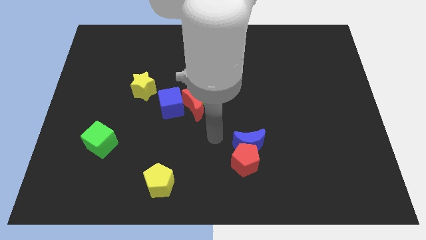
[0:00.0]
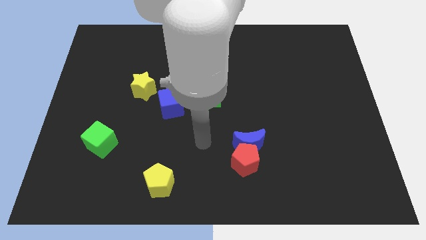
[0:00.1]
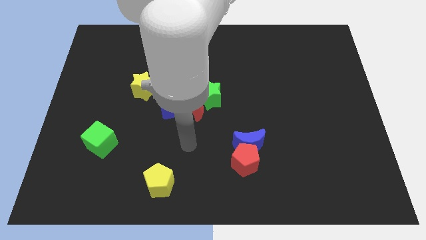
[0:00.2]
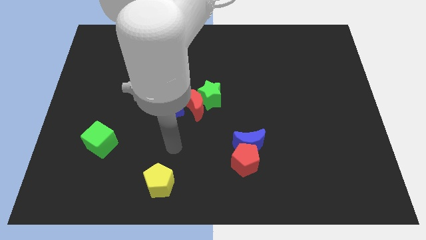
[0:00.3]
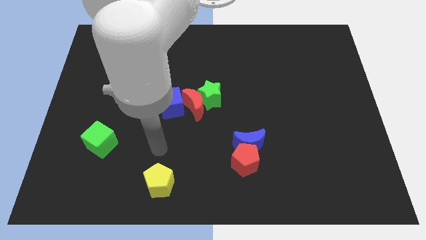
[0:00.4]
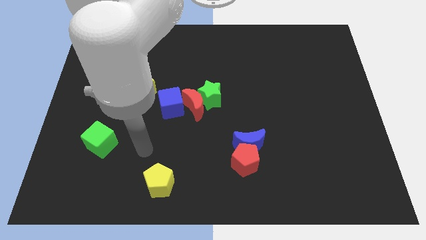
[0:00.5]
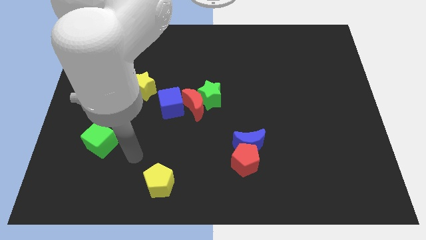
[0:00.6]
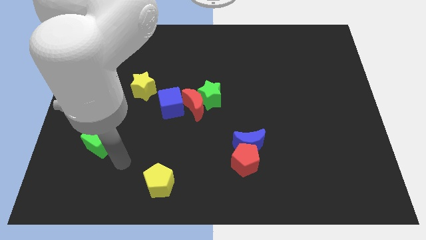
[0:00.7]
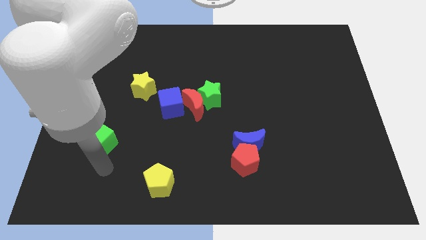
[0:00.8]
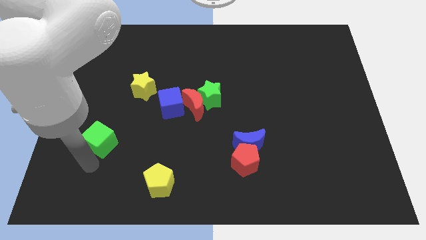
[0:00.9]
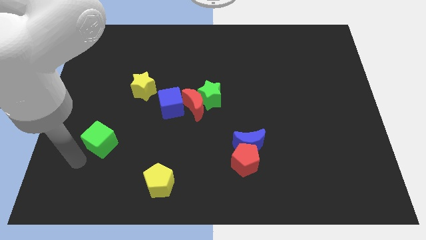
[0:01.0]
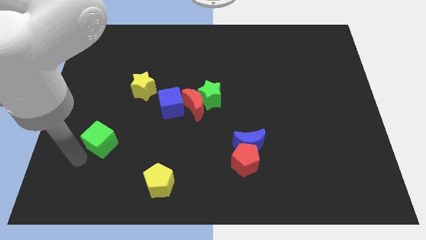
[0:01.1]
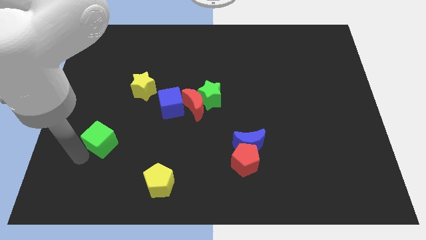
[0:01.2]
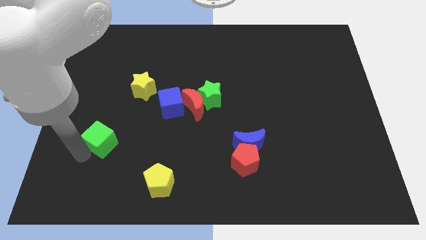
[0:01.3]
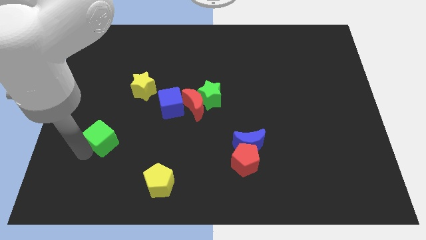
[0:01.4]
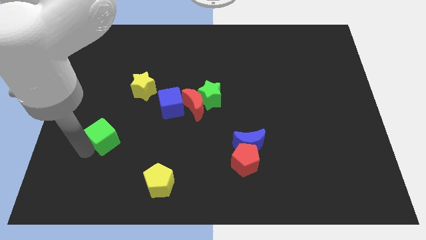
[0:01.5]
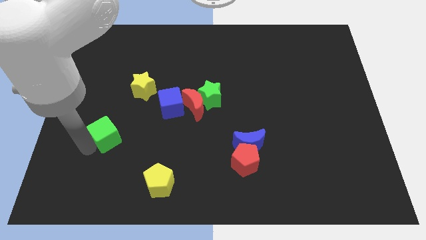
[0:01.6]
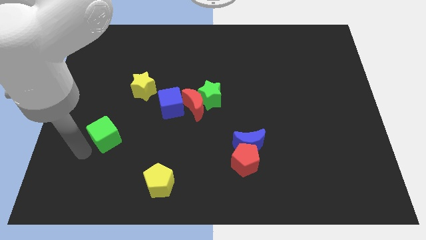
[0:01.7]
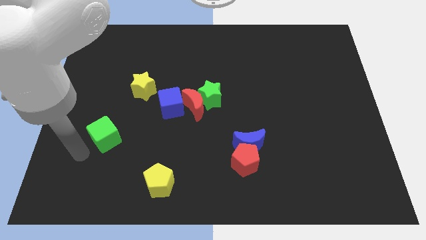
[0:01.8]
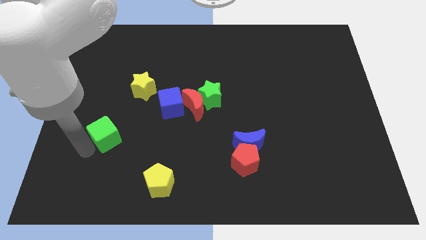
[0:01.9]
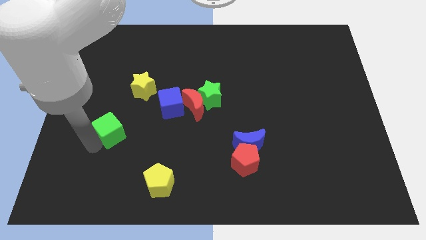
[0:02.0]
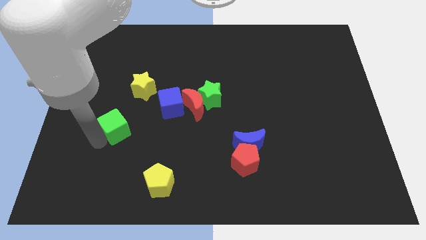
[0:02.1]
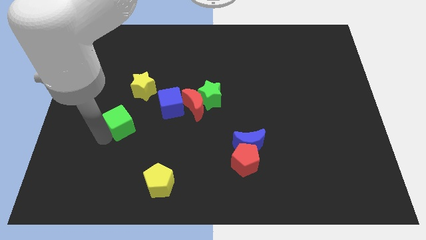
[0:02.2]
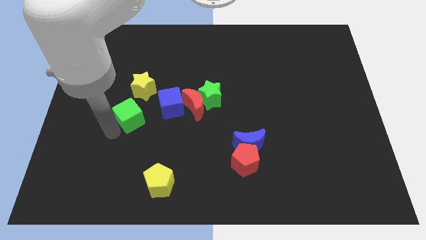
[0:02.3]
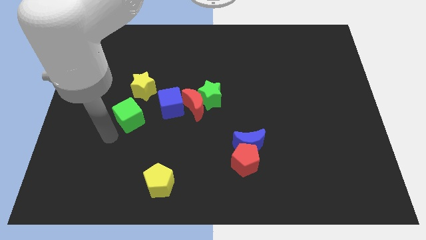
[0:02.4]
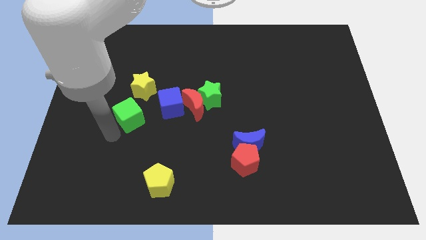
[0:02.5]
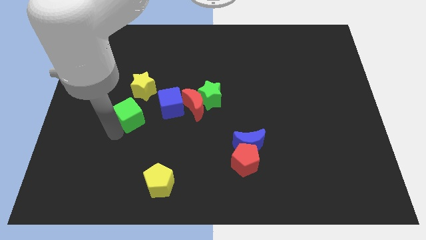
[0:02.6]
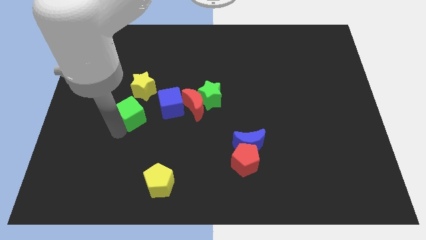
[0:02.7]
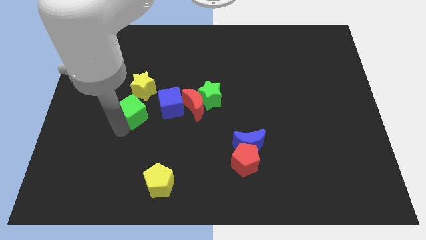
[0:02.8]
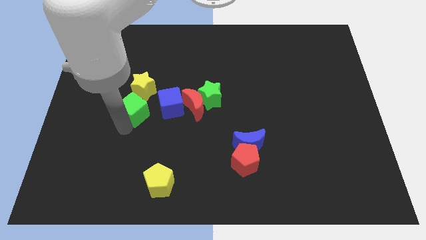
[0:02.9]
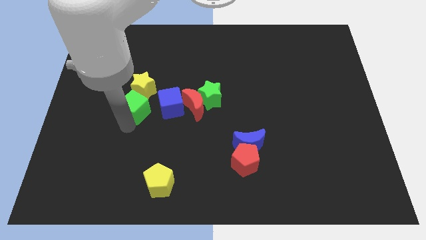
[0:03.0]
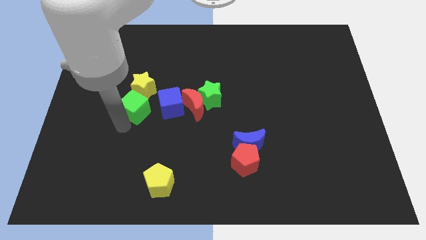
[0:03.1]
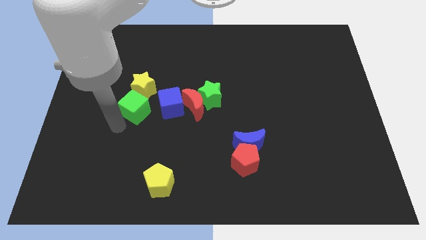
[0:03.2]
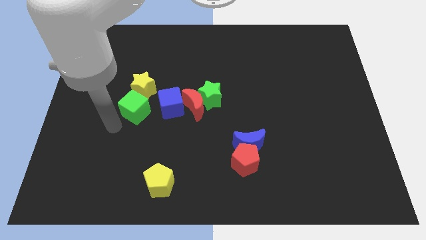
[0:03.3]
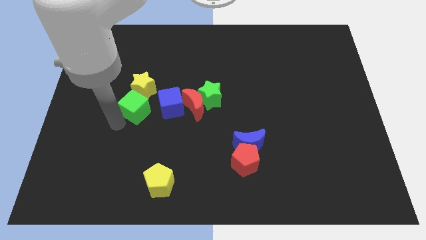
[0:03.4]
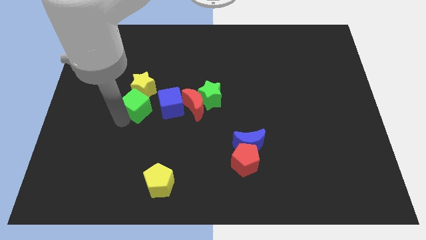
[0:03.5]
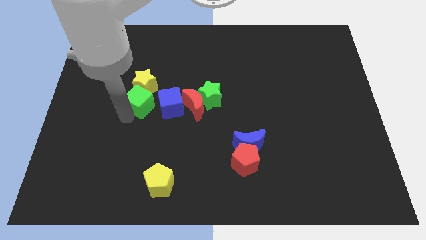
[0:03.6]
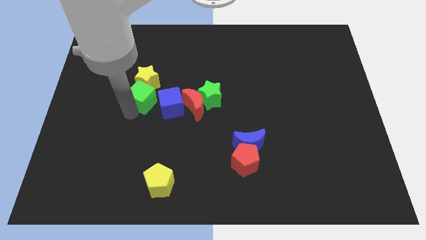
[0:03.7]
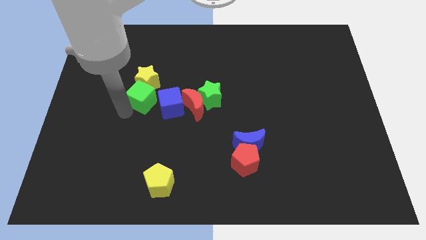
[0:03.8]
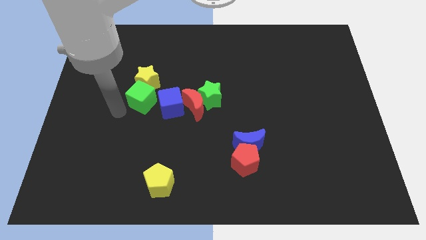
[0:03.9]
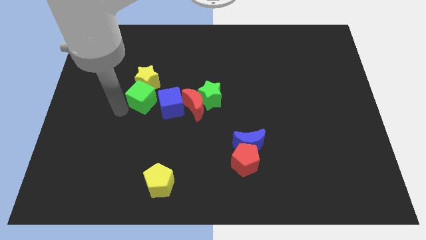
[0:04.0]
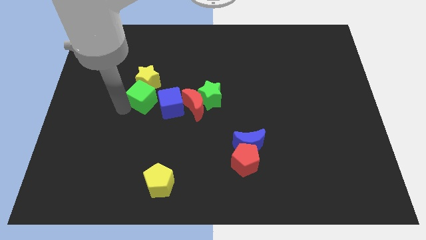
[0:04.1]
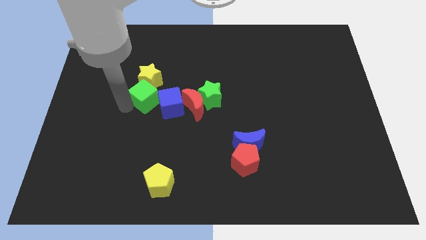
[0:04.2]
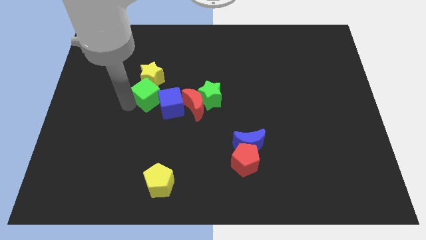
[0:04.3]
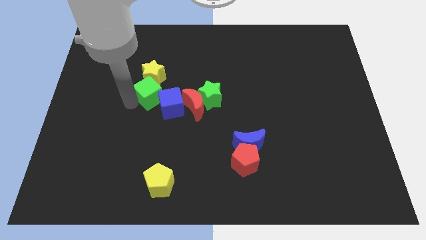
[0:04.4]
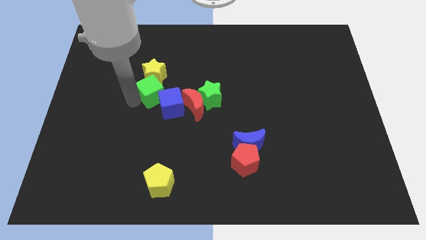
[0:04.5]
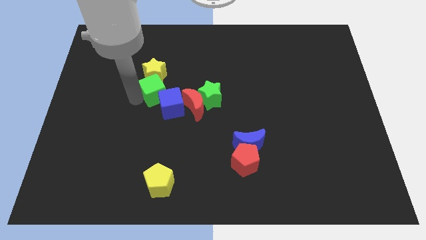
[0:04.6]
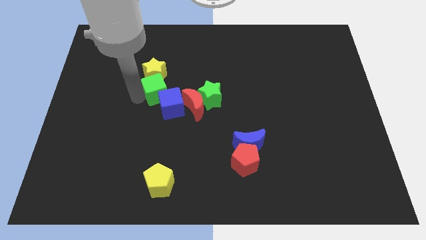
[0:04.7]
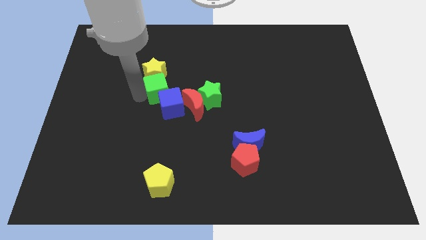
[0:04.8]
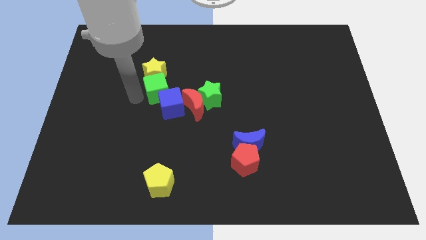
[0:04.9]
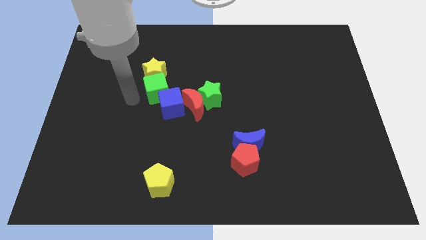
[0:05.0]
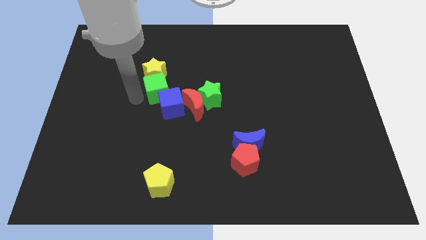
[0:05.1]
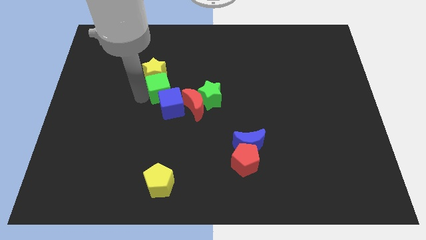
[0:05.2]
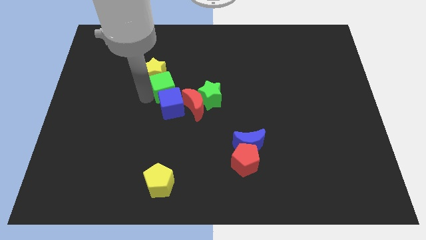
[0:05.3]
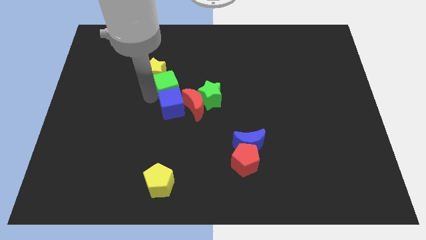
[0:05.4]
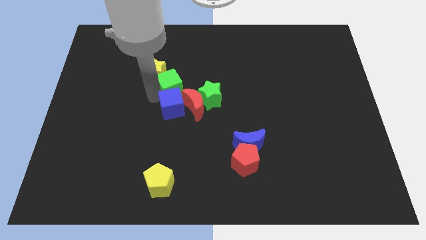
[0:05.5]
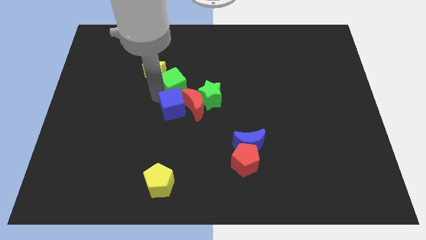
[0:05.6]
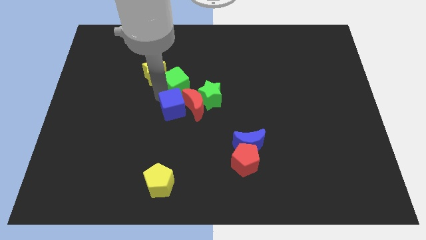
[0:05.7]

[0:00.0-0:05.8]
move the green cube to the top side of the red moon

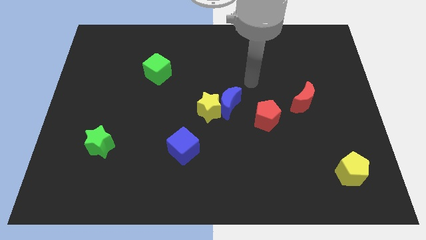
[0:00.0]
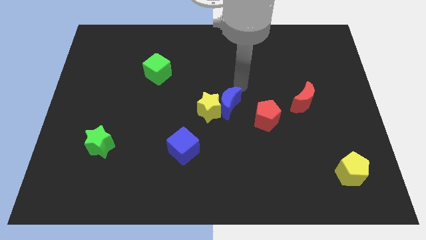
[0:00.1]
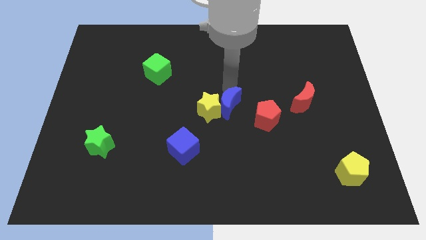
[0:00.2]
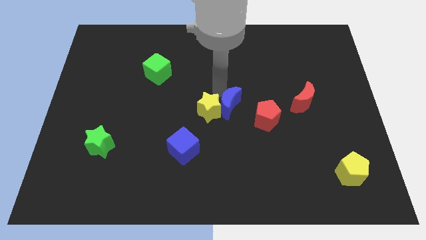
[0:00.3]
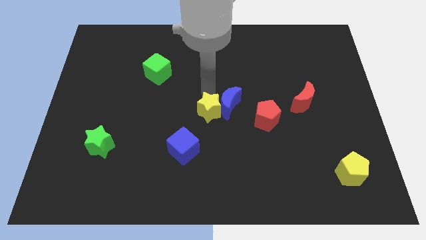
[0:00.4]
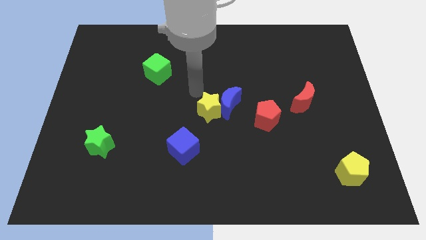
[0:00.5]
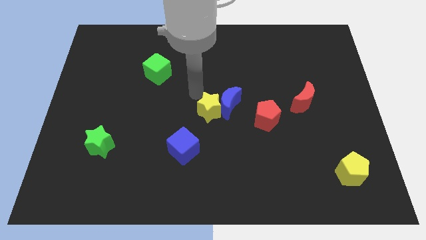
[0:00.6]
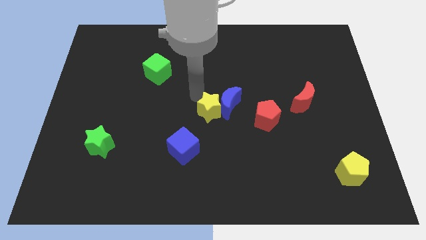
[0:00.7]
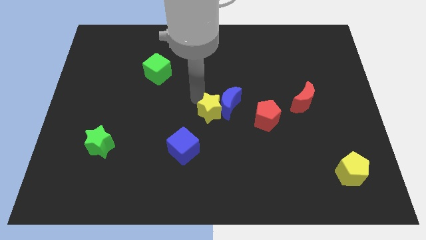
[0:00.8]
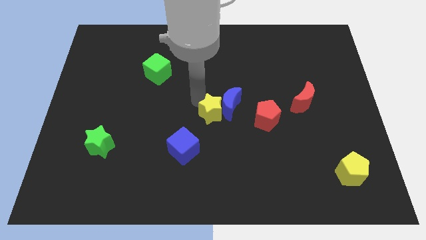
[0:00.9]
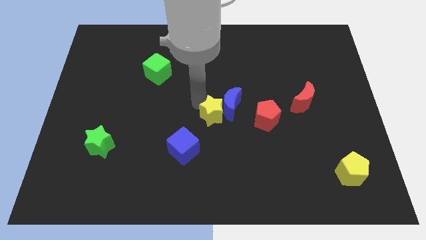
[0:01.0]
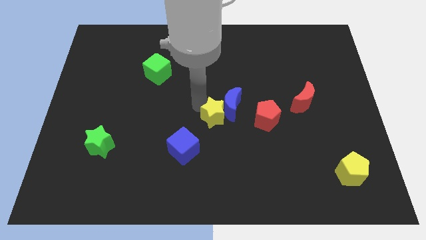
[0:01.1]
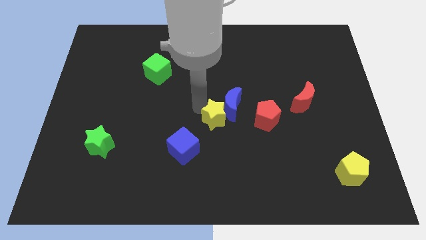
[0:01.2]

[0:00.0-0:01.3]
slide the yellow star to the bottom of the blue moon
